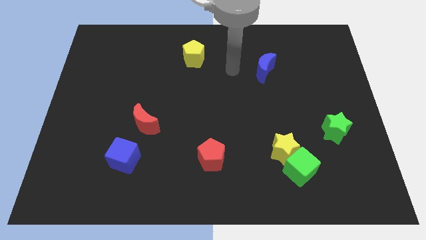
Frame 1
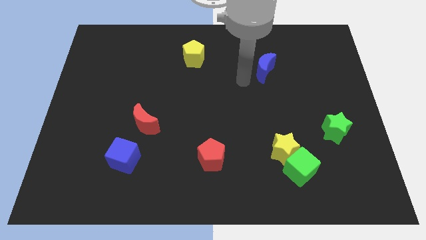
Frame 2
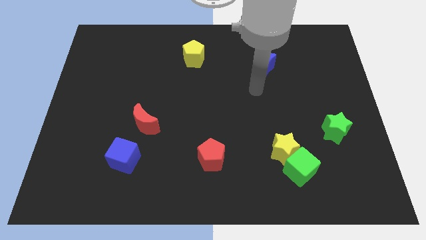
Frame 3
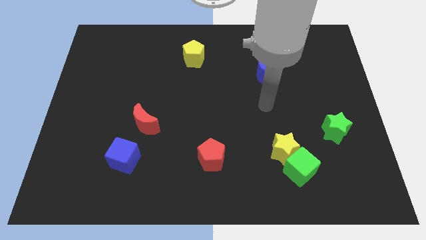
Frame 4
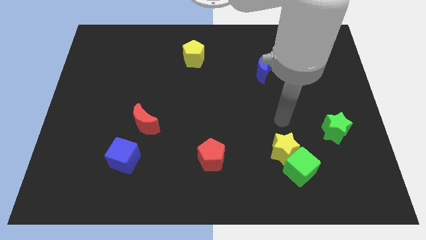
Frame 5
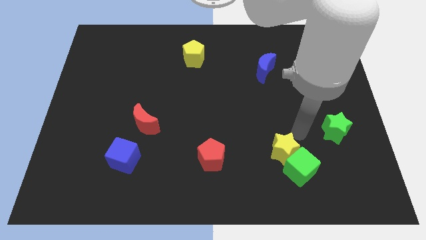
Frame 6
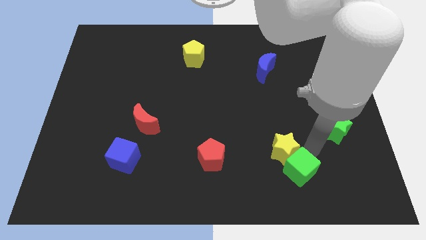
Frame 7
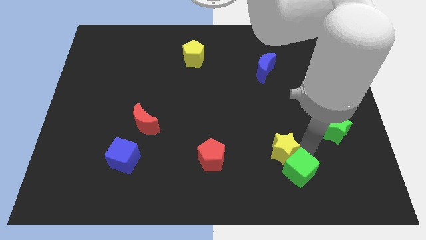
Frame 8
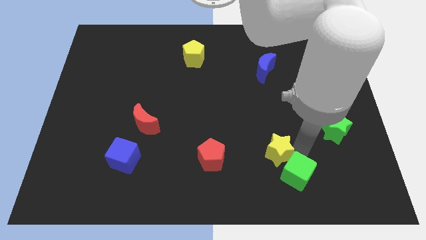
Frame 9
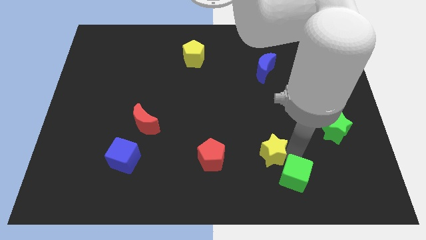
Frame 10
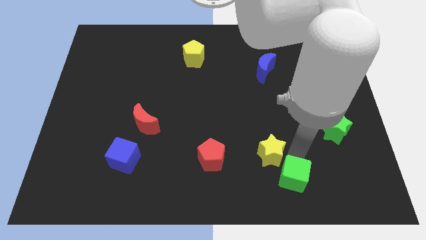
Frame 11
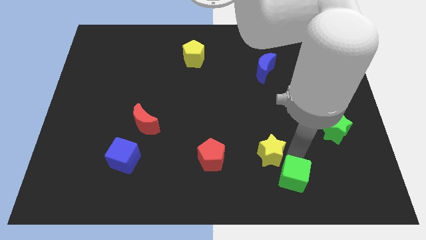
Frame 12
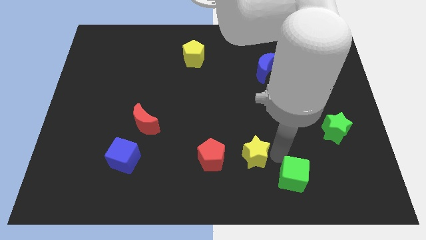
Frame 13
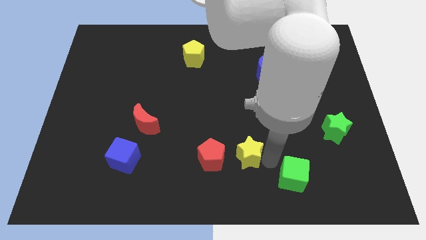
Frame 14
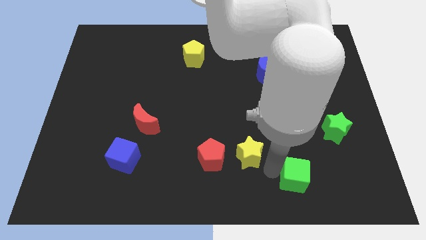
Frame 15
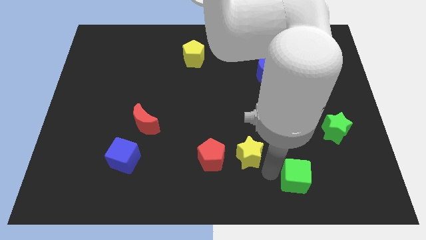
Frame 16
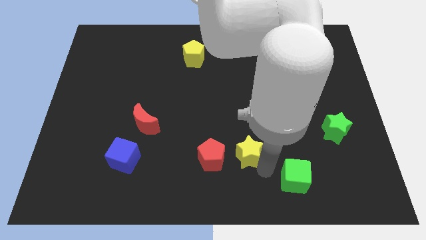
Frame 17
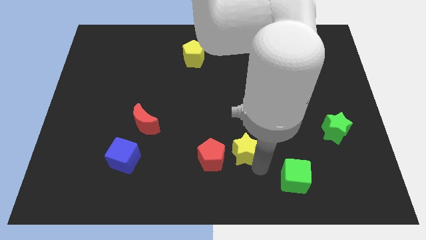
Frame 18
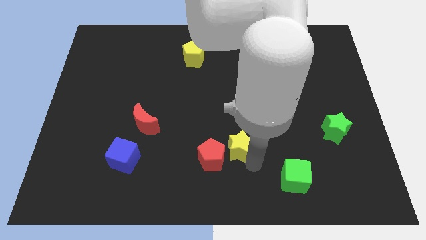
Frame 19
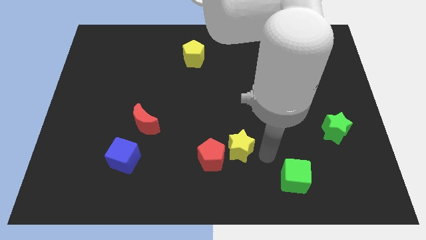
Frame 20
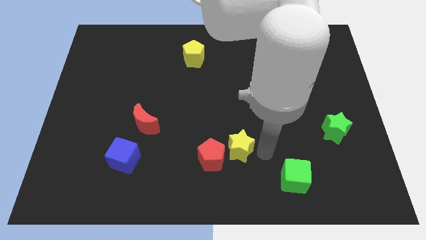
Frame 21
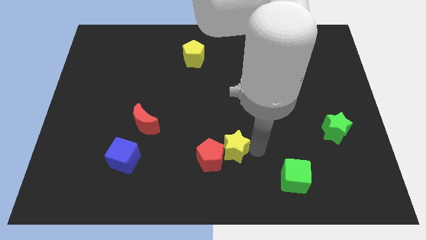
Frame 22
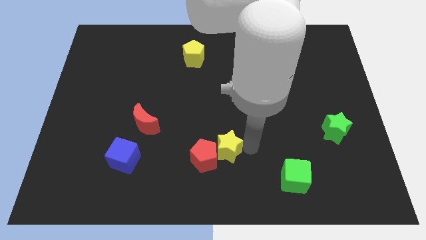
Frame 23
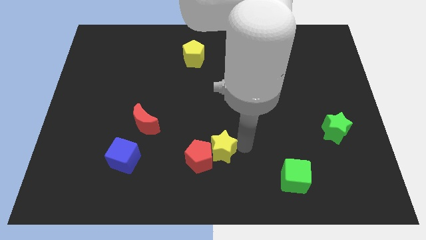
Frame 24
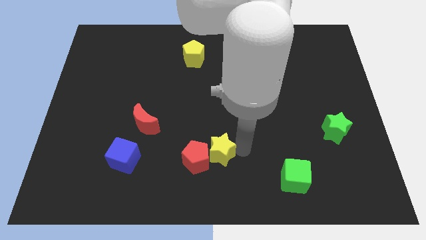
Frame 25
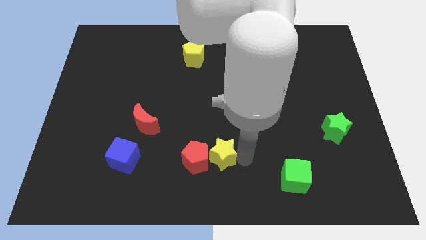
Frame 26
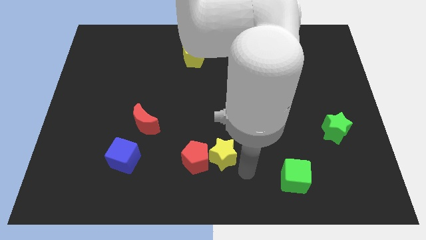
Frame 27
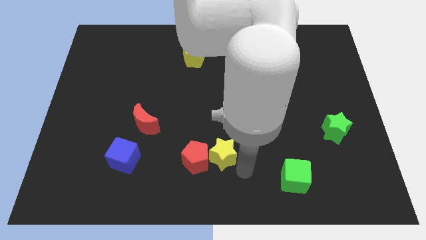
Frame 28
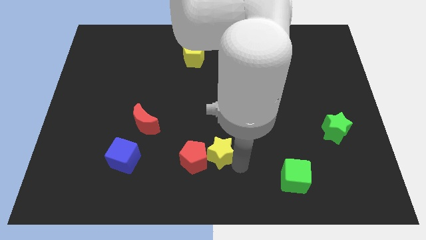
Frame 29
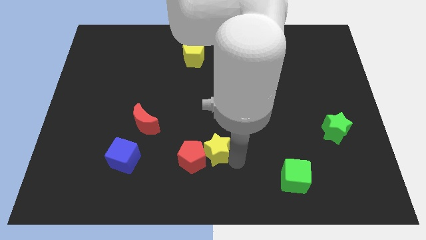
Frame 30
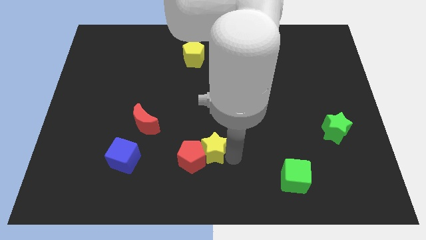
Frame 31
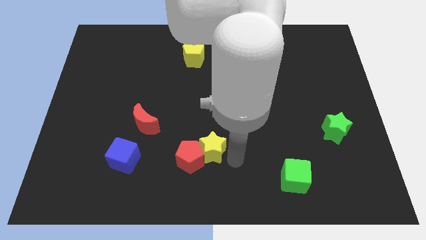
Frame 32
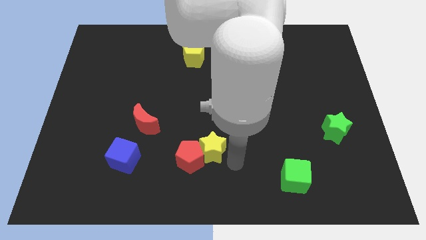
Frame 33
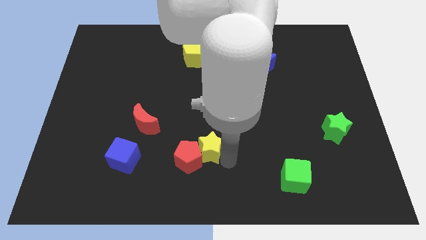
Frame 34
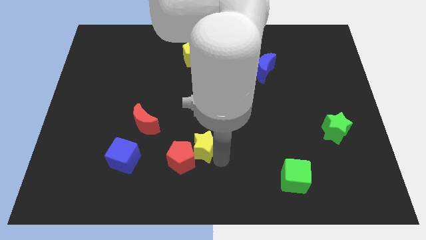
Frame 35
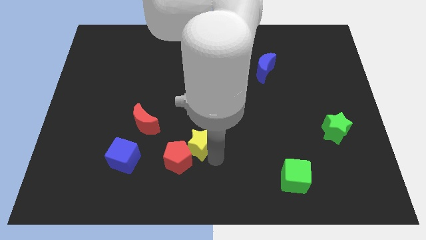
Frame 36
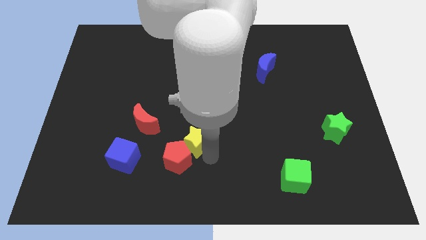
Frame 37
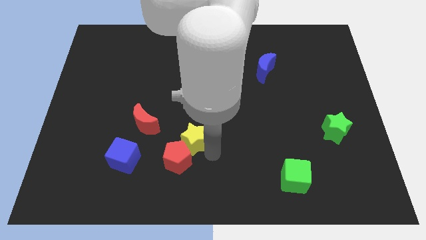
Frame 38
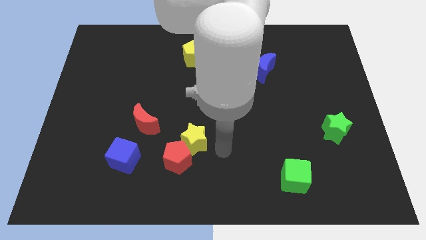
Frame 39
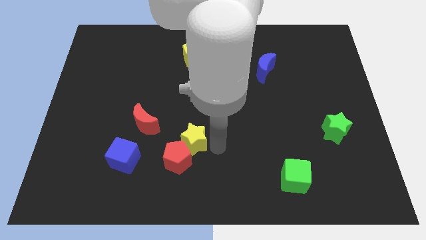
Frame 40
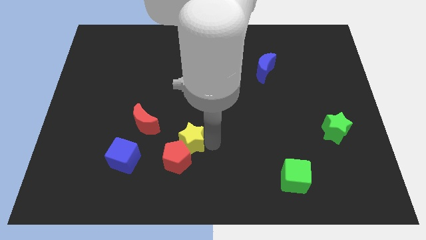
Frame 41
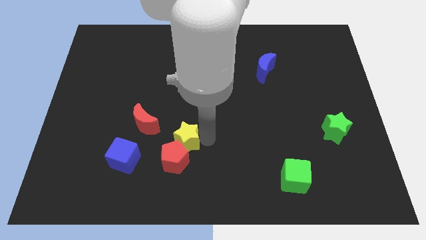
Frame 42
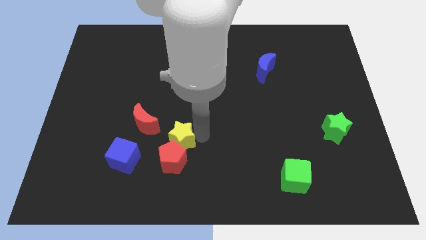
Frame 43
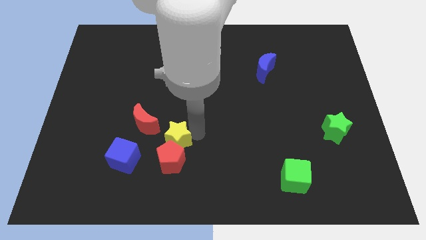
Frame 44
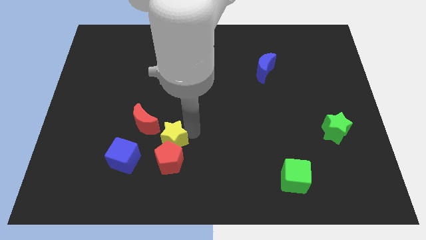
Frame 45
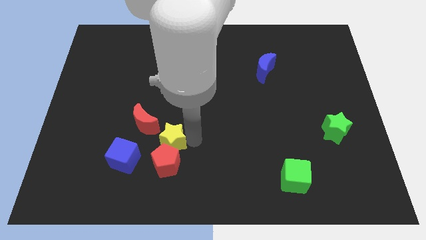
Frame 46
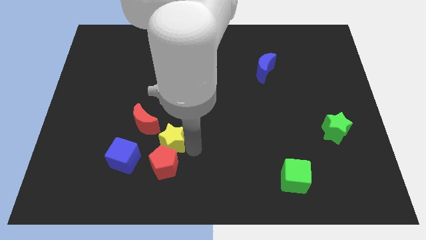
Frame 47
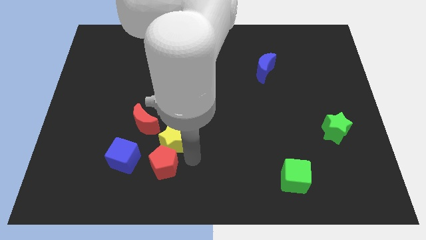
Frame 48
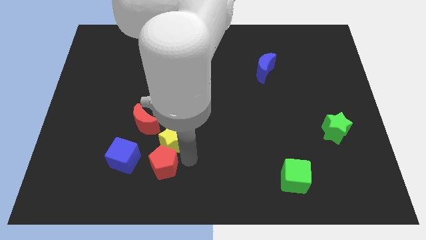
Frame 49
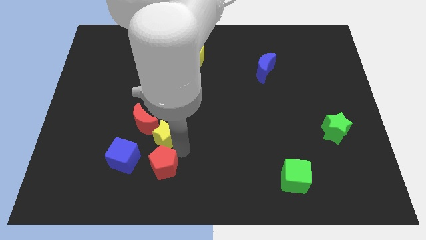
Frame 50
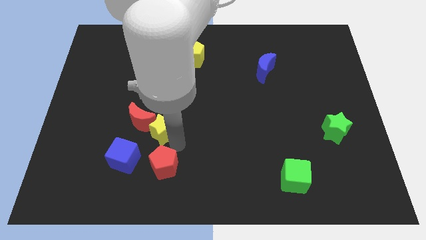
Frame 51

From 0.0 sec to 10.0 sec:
move the yellow star towards the red moon

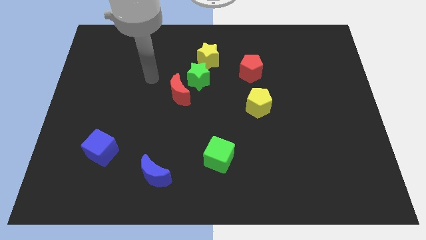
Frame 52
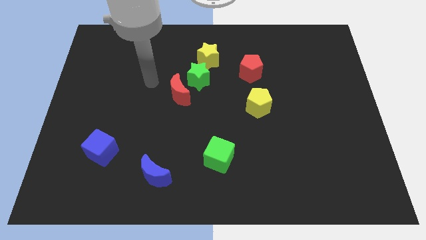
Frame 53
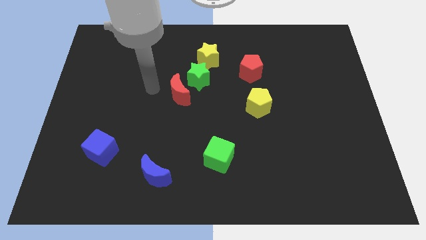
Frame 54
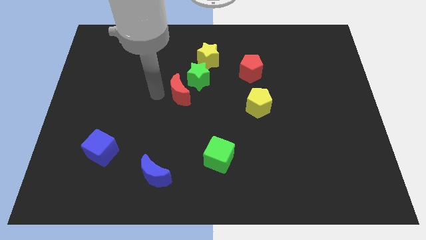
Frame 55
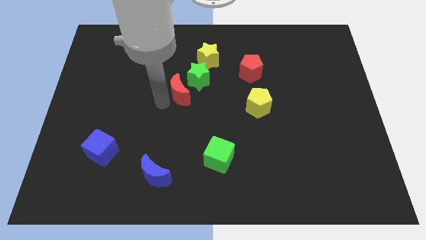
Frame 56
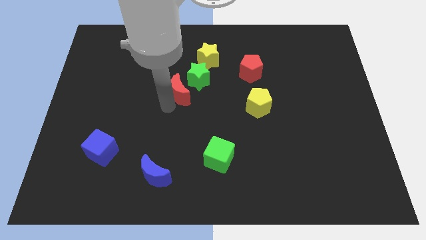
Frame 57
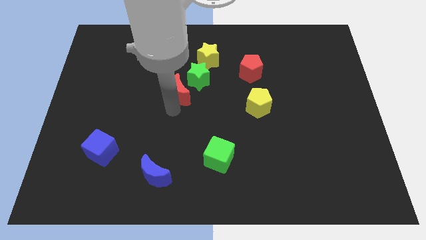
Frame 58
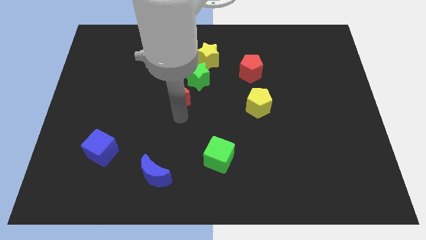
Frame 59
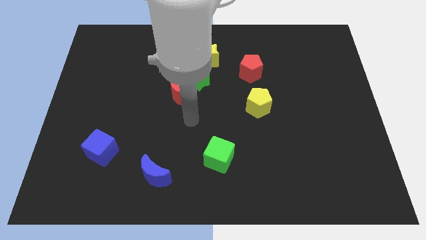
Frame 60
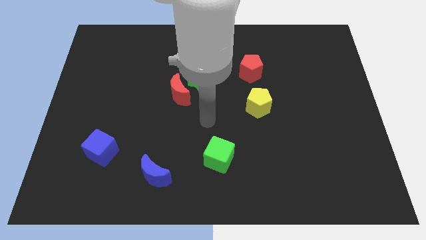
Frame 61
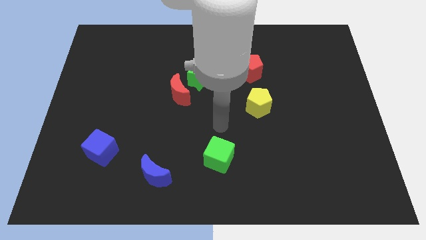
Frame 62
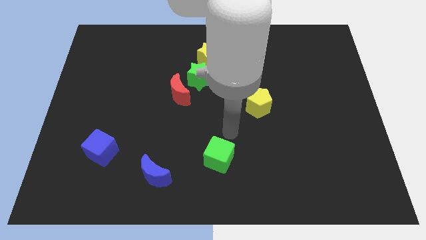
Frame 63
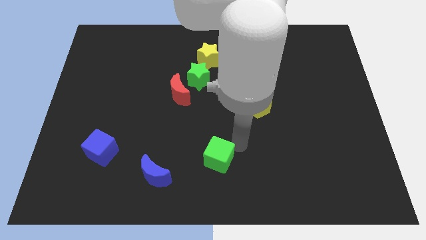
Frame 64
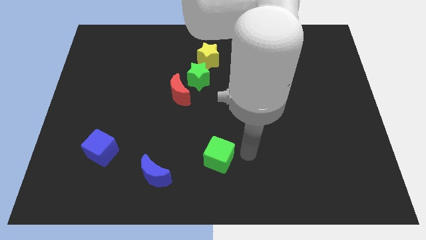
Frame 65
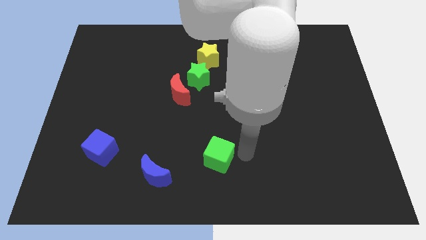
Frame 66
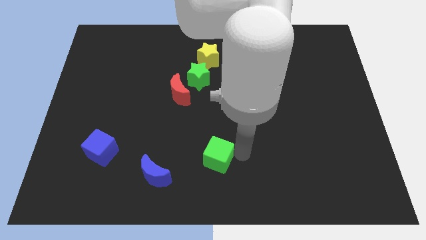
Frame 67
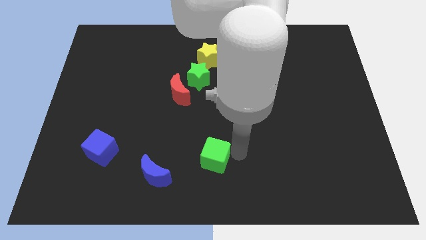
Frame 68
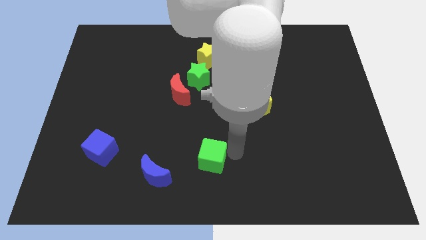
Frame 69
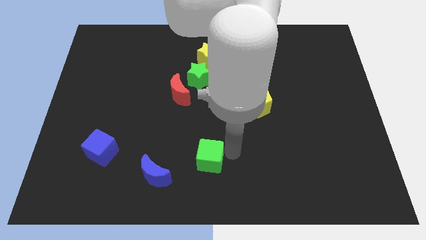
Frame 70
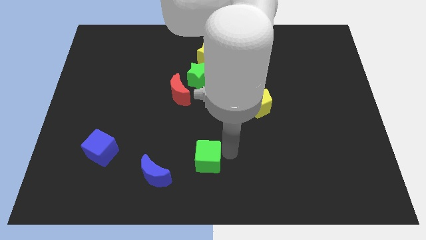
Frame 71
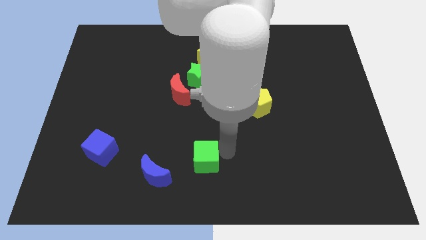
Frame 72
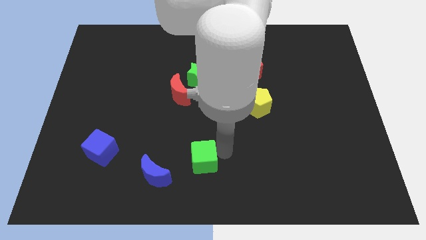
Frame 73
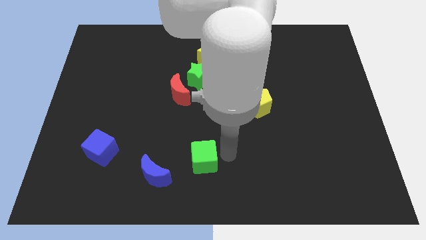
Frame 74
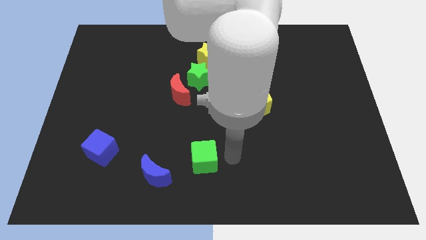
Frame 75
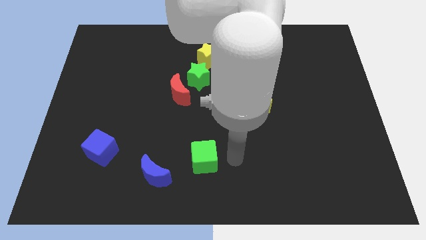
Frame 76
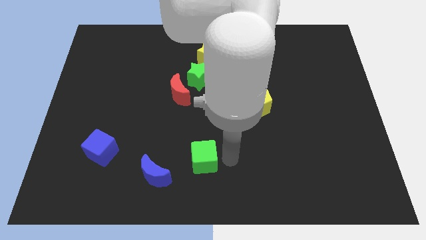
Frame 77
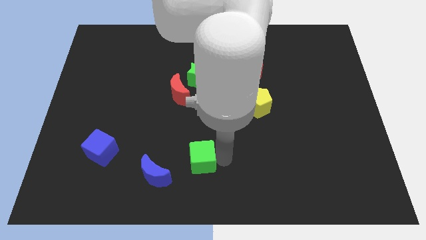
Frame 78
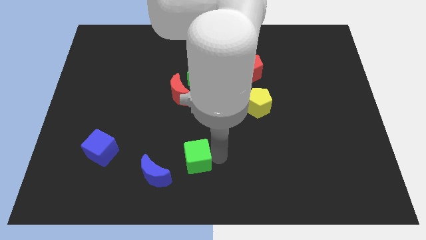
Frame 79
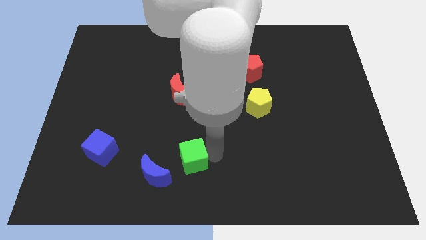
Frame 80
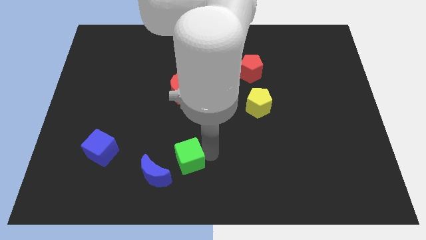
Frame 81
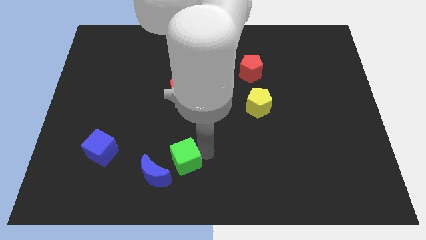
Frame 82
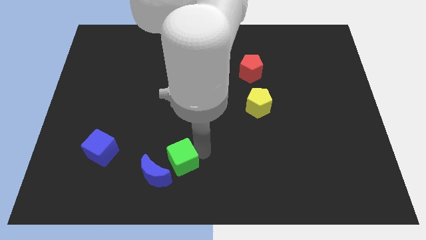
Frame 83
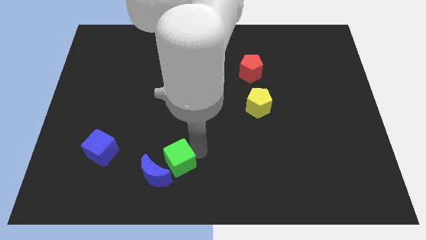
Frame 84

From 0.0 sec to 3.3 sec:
slide the green cube towards the blue moon
